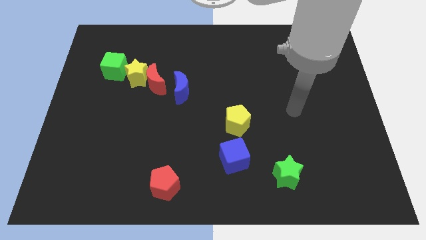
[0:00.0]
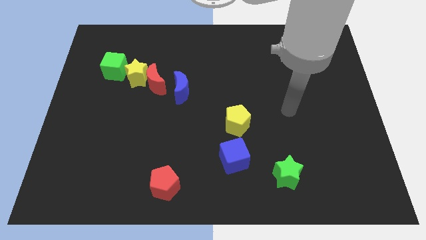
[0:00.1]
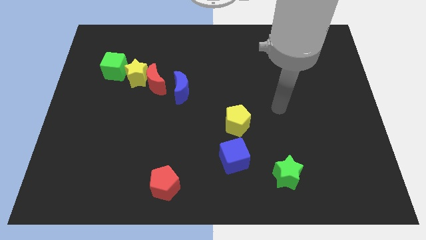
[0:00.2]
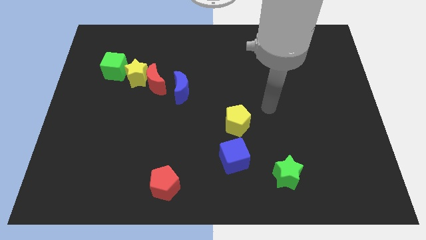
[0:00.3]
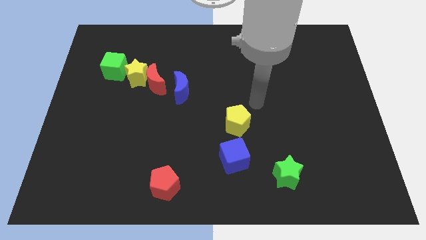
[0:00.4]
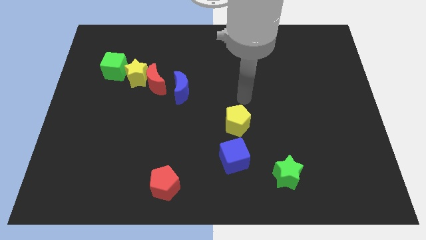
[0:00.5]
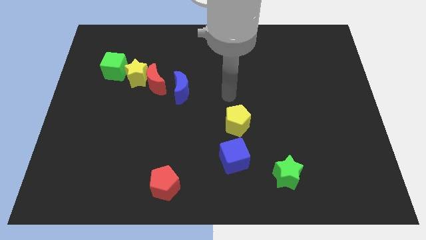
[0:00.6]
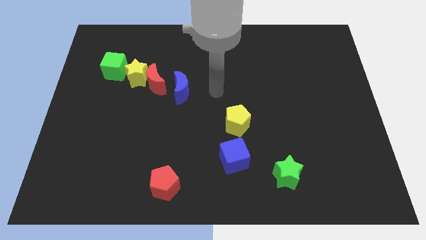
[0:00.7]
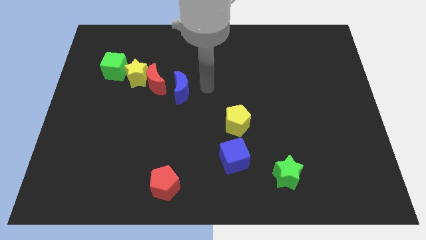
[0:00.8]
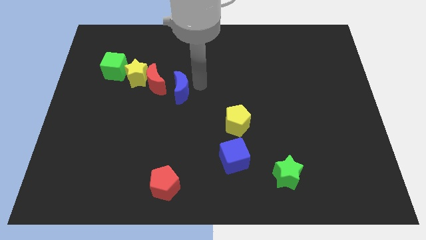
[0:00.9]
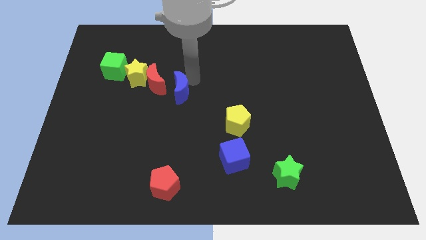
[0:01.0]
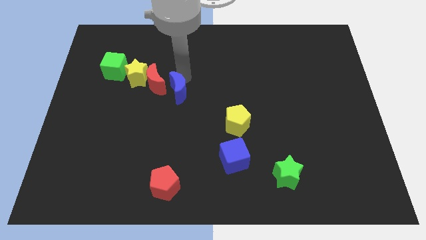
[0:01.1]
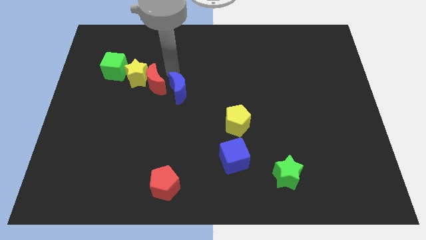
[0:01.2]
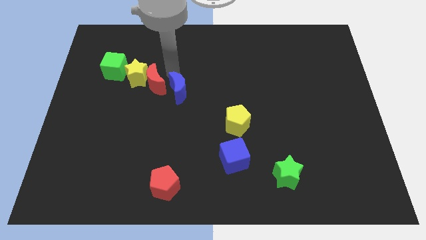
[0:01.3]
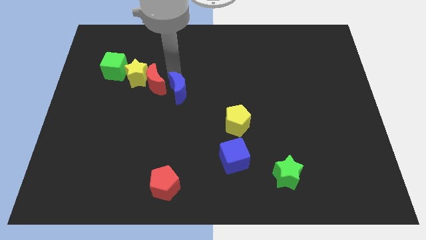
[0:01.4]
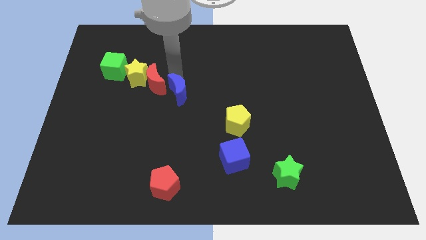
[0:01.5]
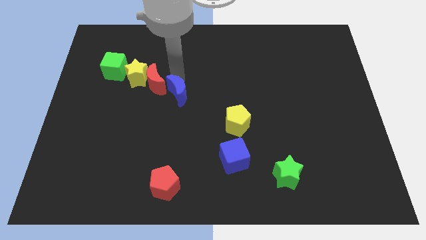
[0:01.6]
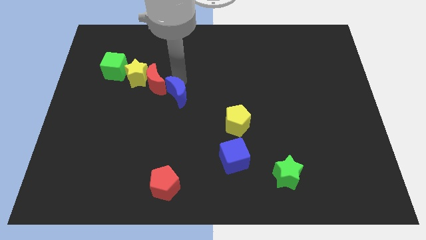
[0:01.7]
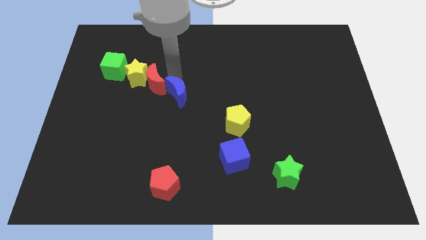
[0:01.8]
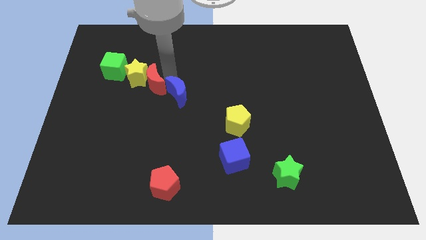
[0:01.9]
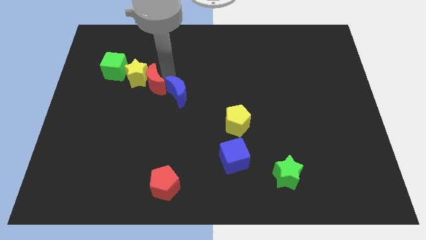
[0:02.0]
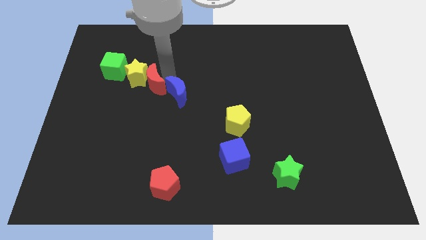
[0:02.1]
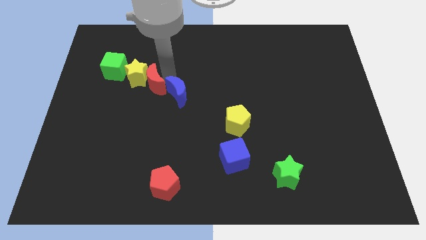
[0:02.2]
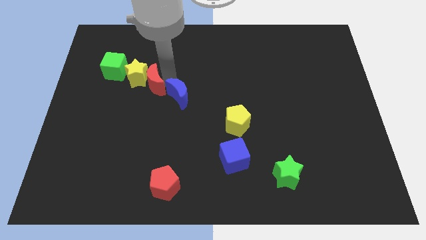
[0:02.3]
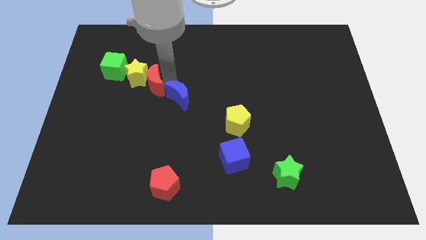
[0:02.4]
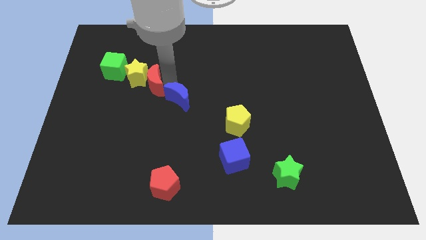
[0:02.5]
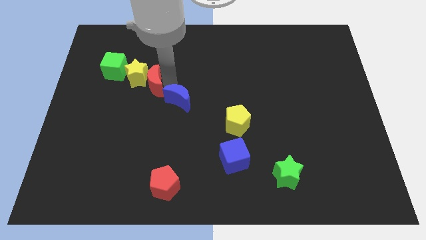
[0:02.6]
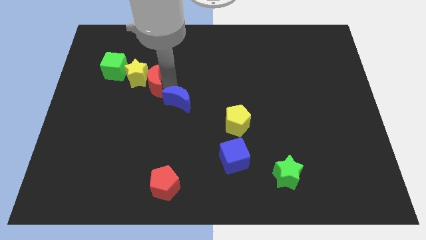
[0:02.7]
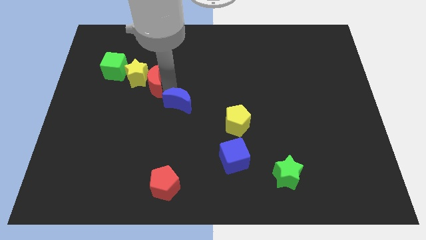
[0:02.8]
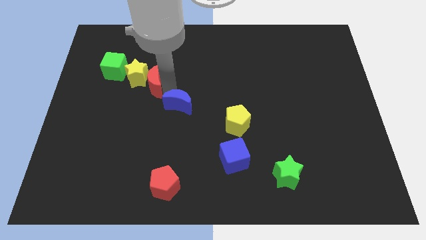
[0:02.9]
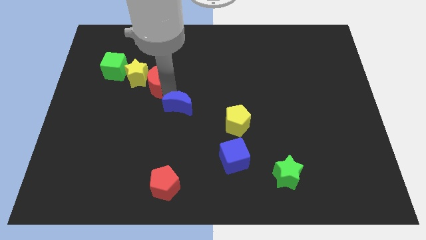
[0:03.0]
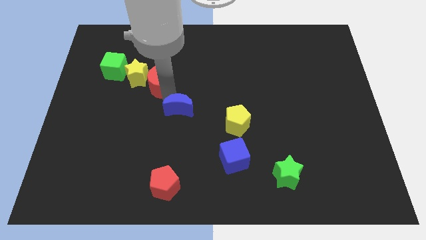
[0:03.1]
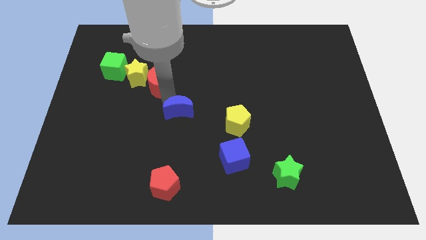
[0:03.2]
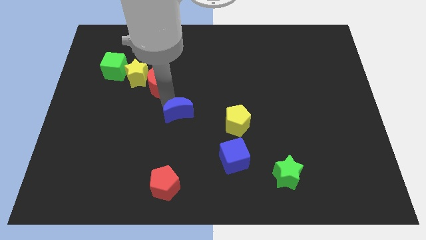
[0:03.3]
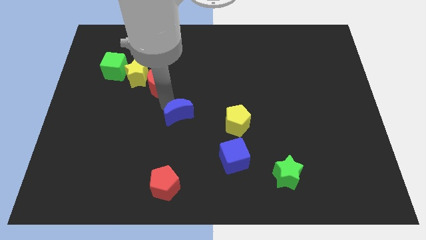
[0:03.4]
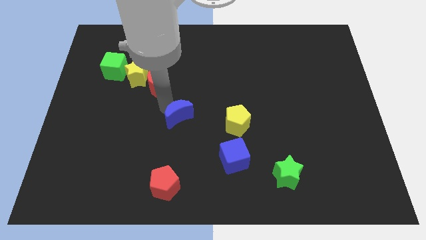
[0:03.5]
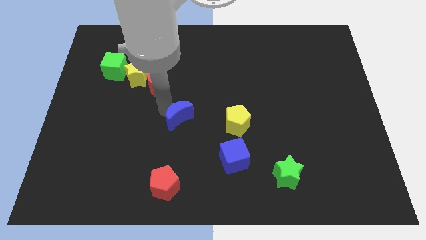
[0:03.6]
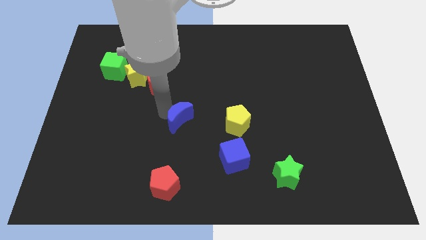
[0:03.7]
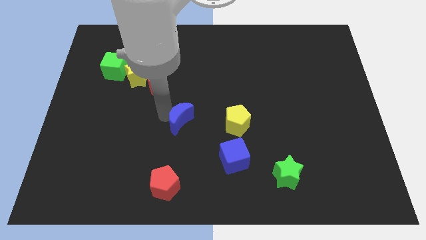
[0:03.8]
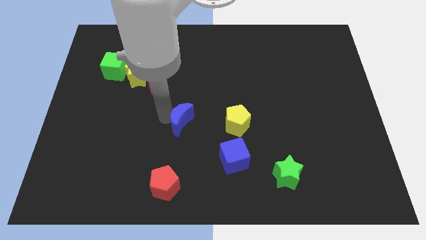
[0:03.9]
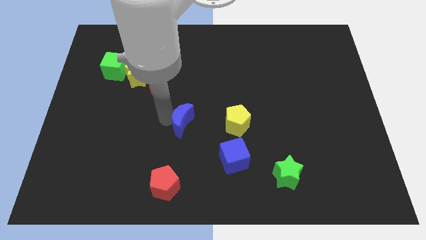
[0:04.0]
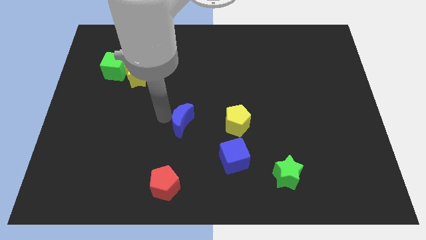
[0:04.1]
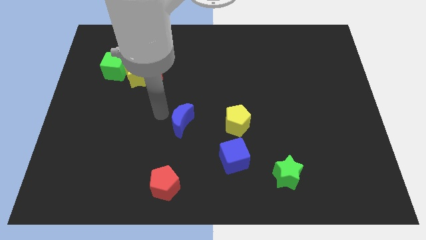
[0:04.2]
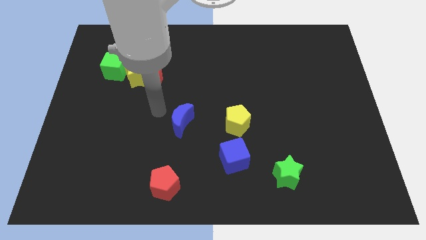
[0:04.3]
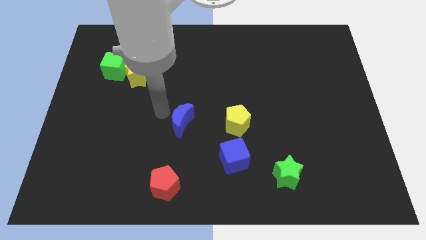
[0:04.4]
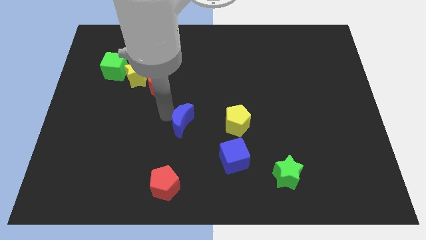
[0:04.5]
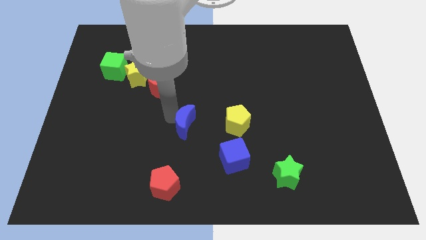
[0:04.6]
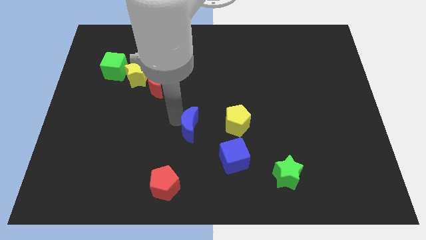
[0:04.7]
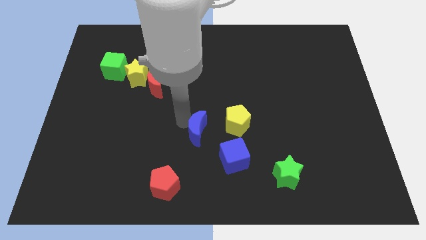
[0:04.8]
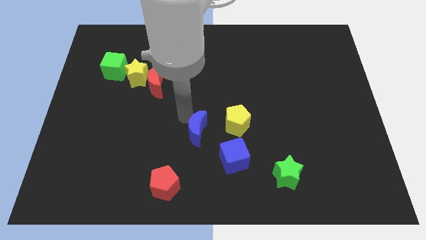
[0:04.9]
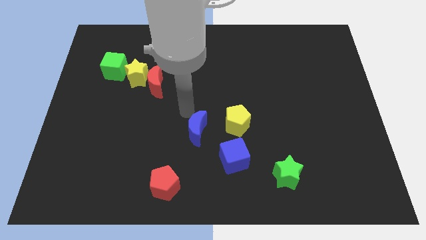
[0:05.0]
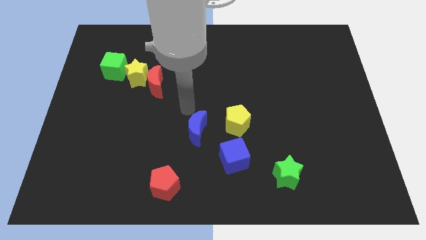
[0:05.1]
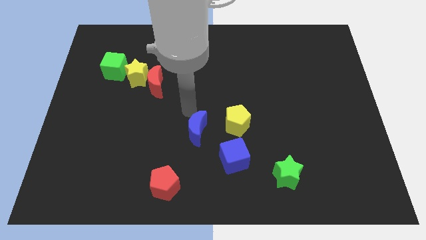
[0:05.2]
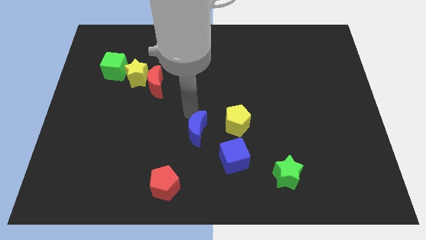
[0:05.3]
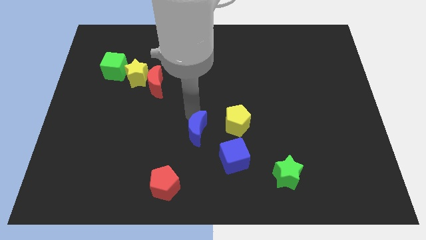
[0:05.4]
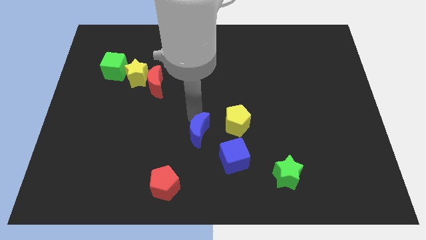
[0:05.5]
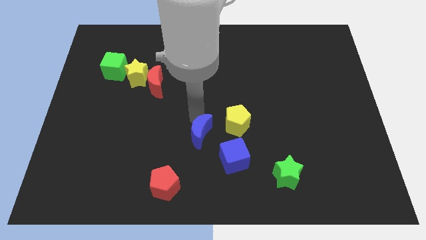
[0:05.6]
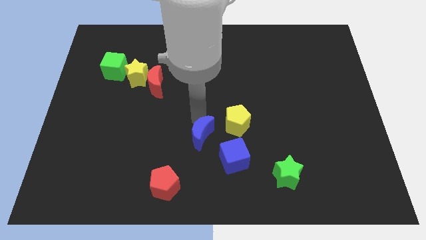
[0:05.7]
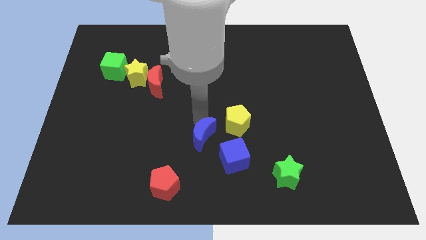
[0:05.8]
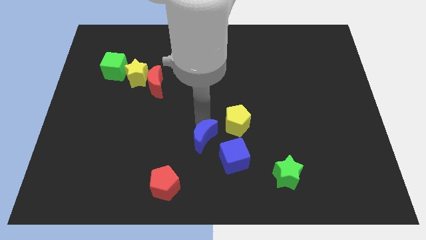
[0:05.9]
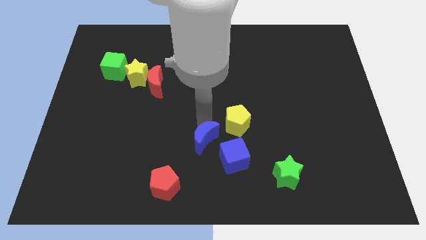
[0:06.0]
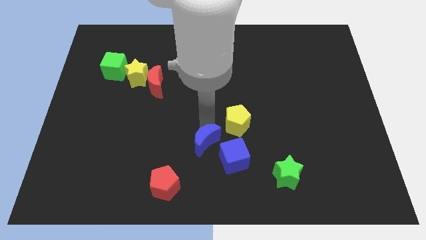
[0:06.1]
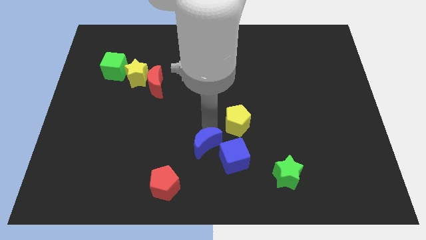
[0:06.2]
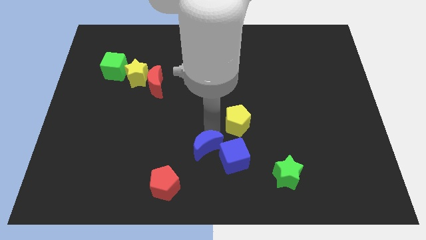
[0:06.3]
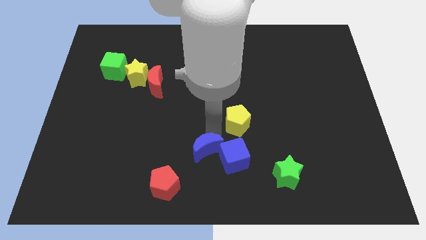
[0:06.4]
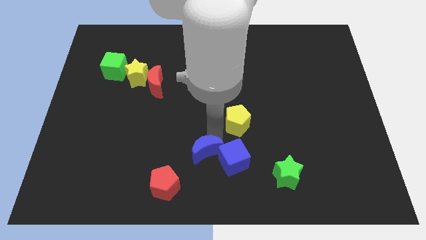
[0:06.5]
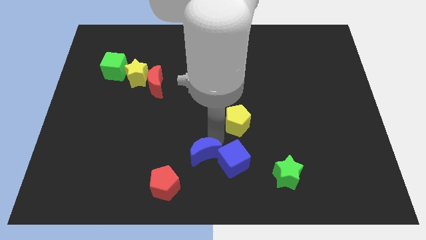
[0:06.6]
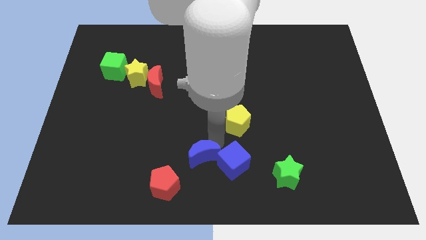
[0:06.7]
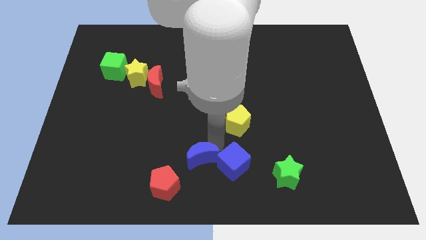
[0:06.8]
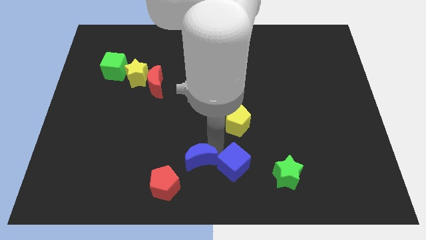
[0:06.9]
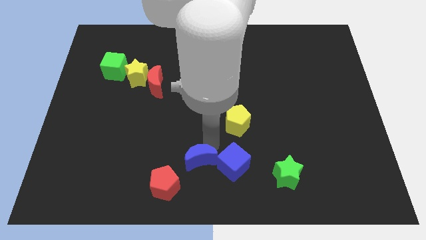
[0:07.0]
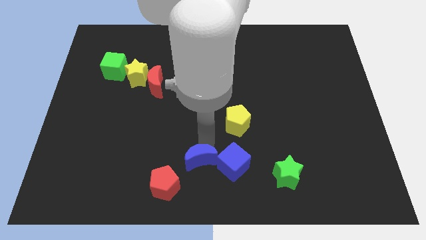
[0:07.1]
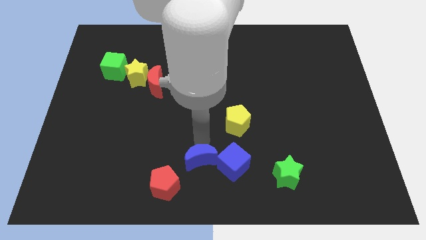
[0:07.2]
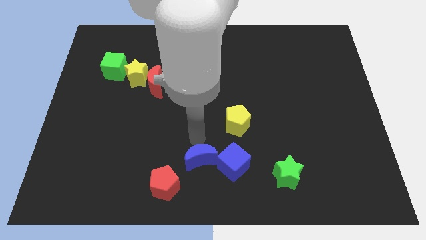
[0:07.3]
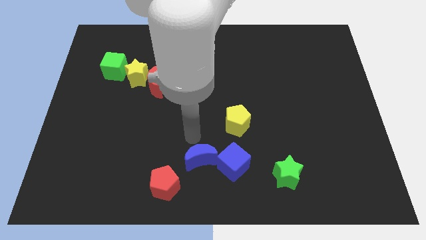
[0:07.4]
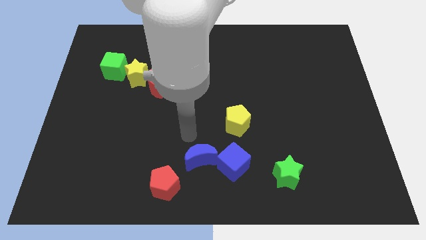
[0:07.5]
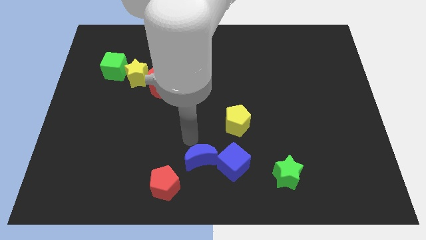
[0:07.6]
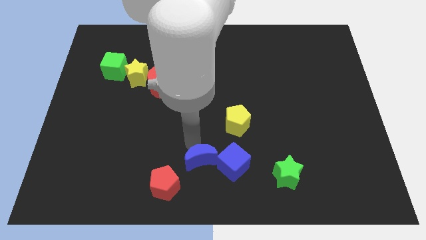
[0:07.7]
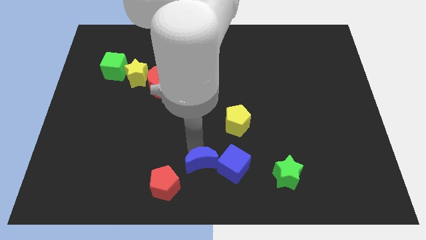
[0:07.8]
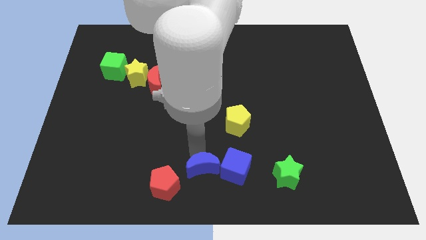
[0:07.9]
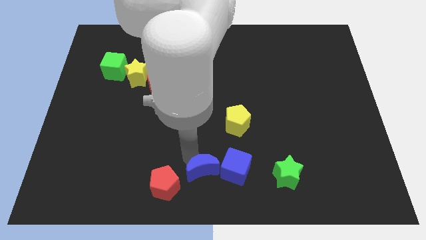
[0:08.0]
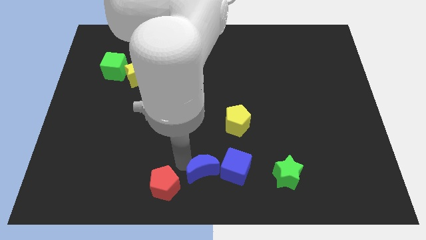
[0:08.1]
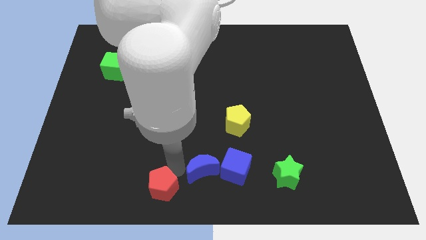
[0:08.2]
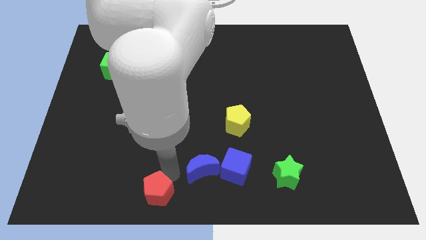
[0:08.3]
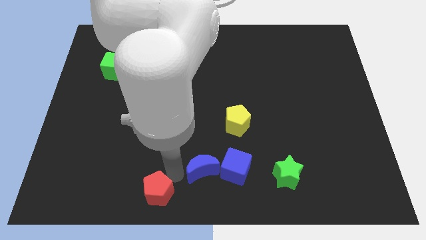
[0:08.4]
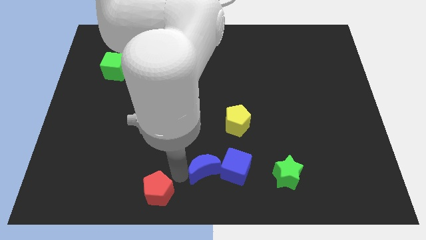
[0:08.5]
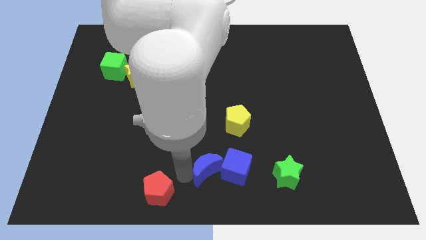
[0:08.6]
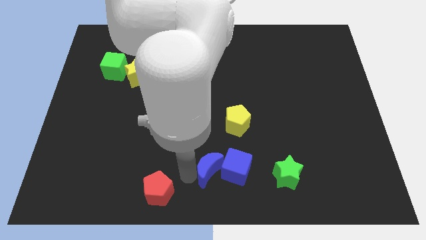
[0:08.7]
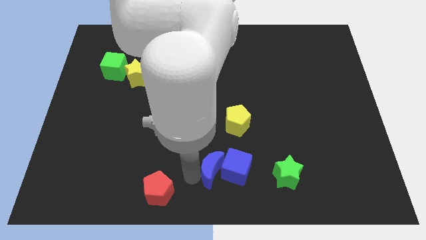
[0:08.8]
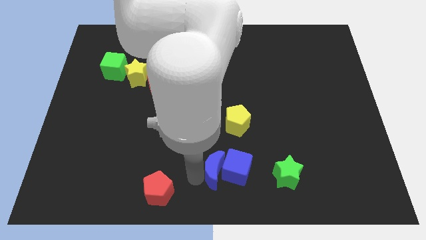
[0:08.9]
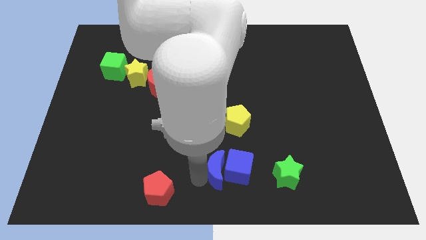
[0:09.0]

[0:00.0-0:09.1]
slide the blue moon to the bottom side of the yellow pentagon
